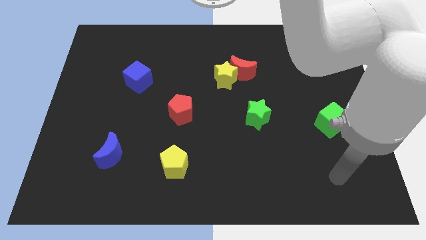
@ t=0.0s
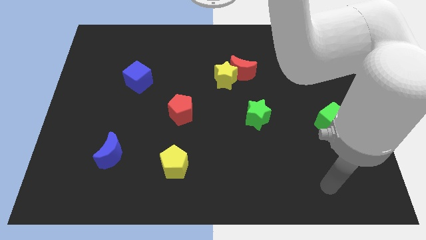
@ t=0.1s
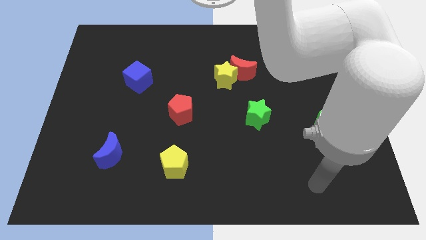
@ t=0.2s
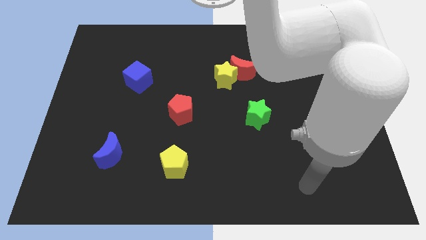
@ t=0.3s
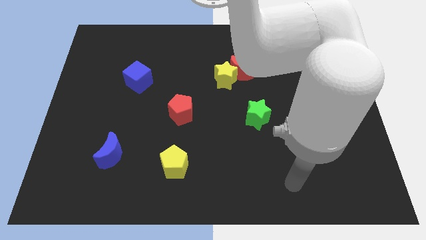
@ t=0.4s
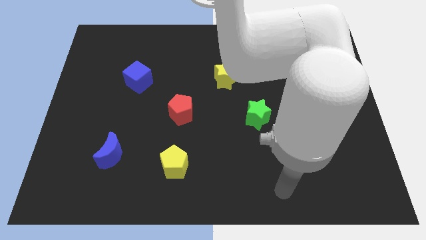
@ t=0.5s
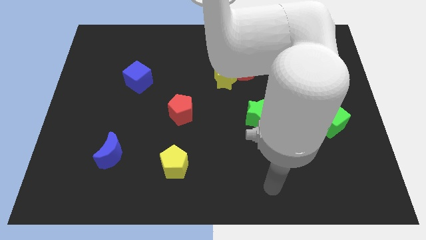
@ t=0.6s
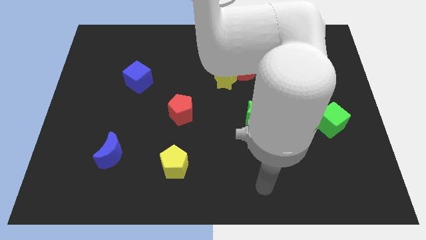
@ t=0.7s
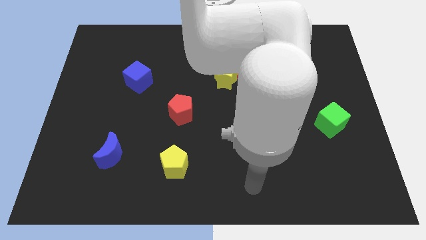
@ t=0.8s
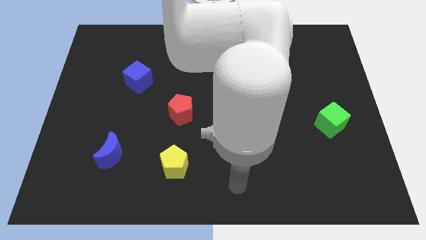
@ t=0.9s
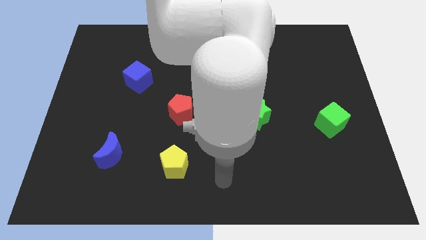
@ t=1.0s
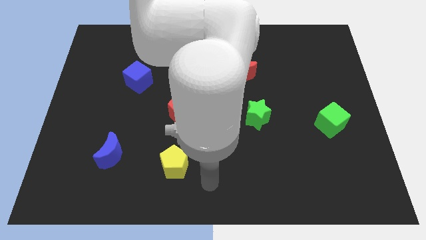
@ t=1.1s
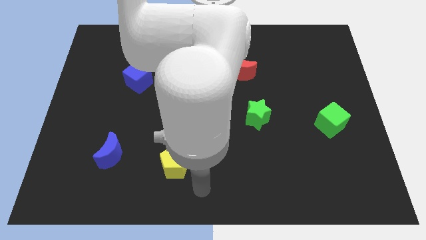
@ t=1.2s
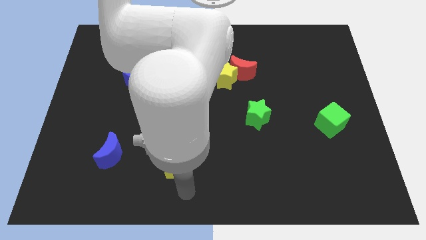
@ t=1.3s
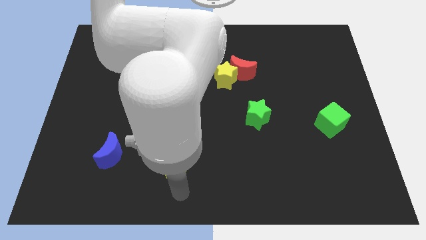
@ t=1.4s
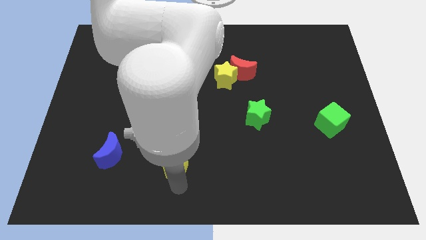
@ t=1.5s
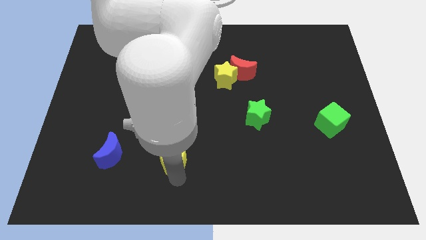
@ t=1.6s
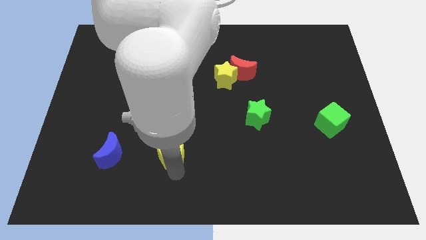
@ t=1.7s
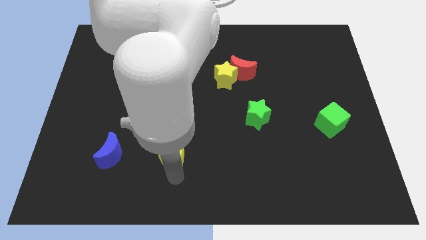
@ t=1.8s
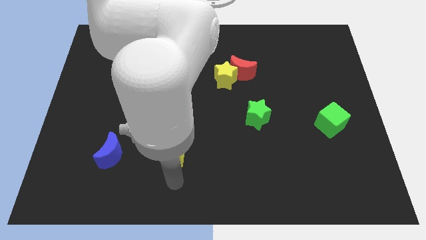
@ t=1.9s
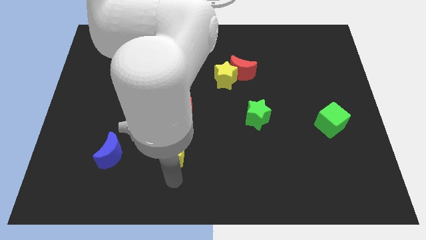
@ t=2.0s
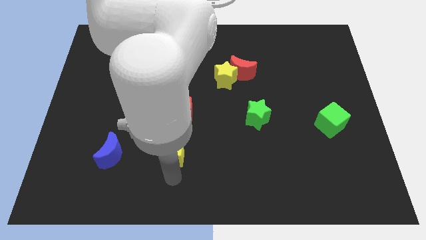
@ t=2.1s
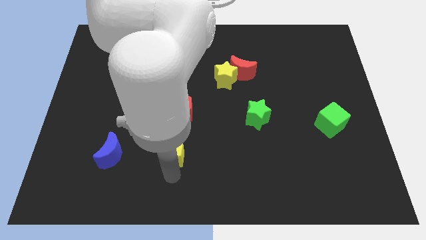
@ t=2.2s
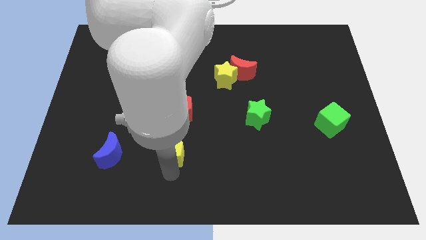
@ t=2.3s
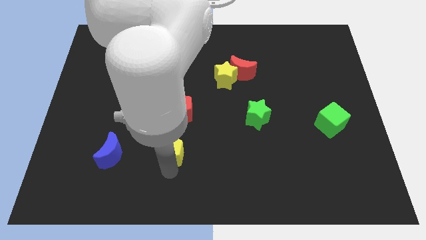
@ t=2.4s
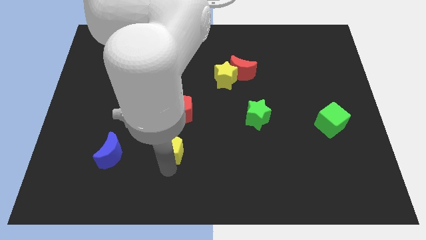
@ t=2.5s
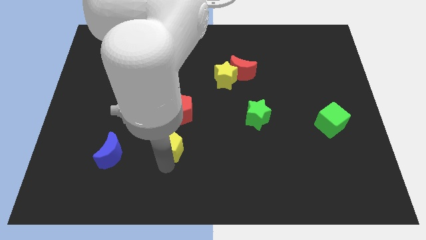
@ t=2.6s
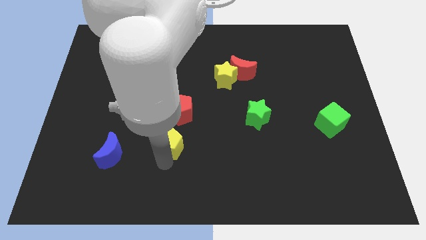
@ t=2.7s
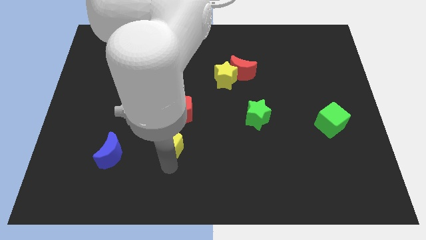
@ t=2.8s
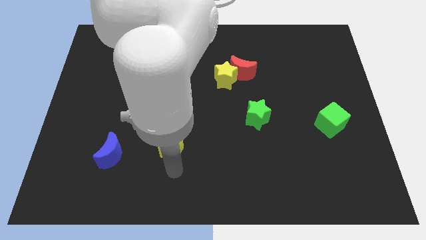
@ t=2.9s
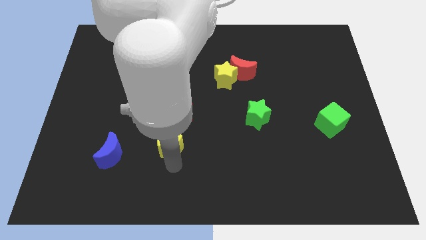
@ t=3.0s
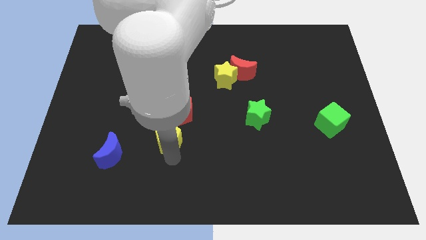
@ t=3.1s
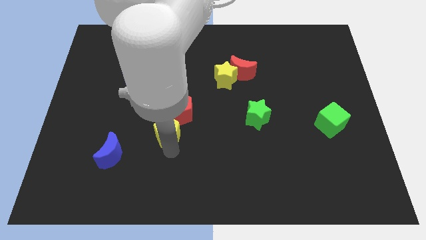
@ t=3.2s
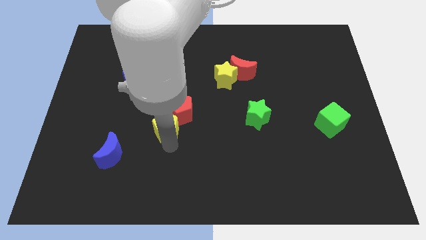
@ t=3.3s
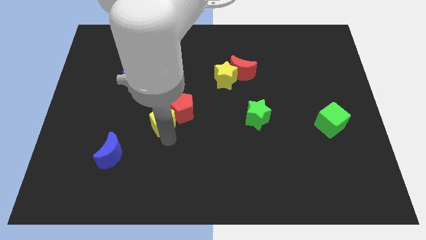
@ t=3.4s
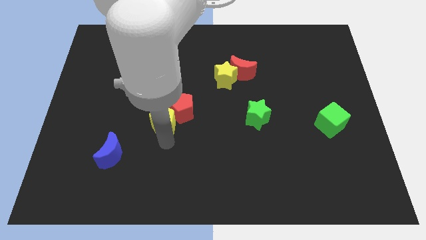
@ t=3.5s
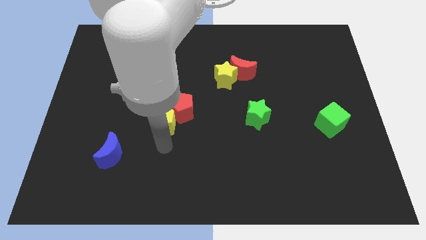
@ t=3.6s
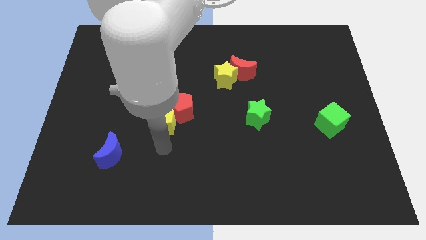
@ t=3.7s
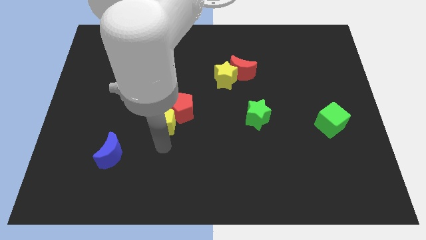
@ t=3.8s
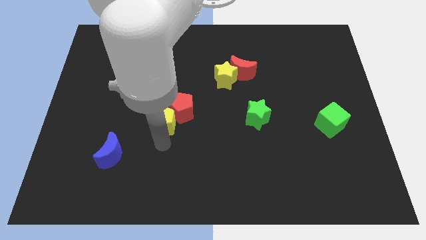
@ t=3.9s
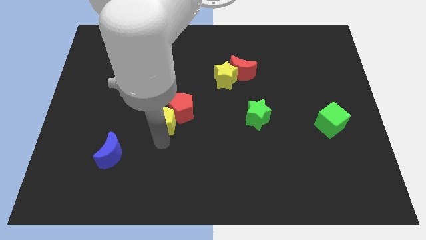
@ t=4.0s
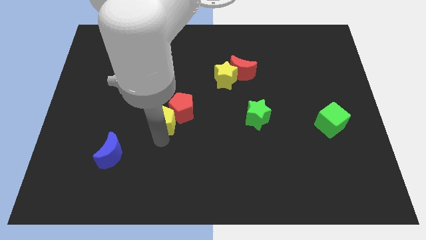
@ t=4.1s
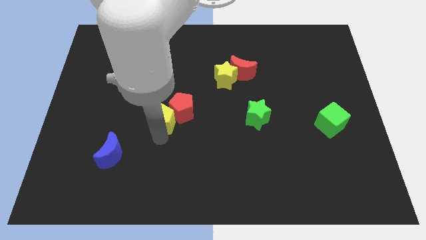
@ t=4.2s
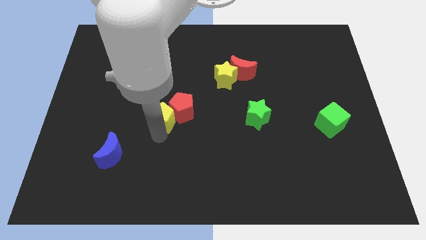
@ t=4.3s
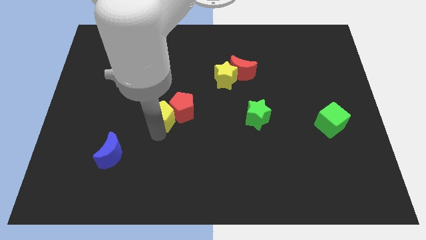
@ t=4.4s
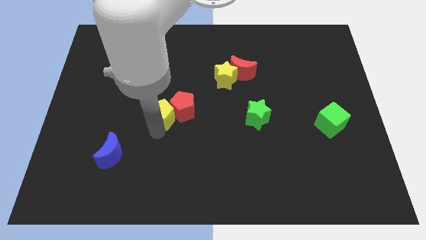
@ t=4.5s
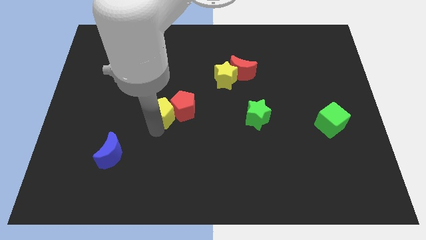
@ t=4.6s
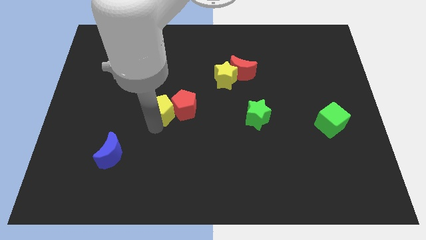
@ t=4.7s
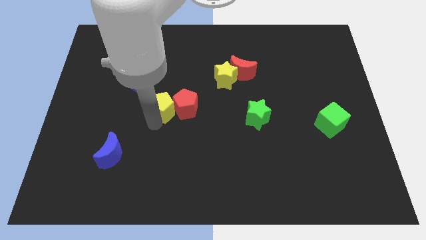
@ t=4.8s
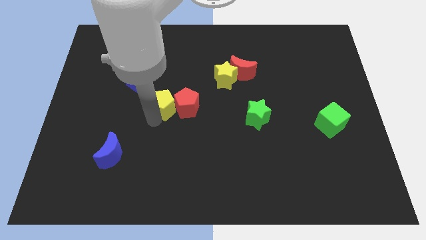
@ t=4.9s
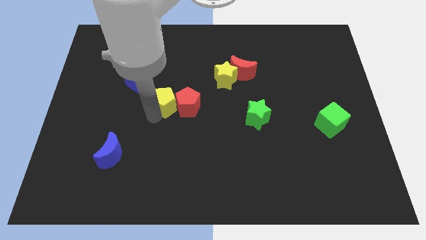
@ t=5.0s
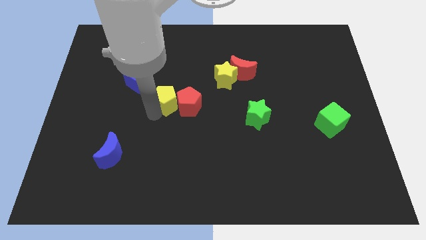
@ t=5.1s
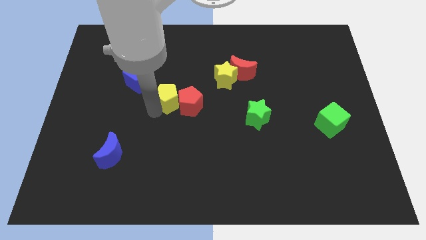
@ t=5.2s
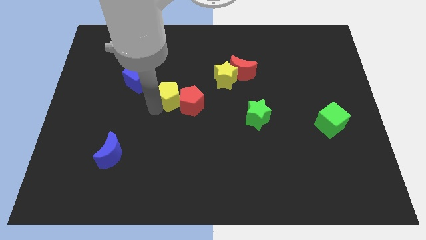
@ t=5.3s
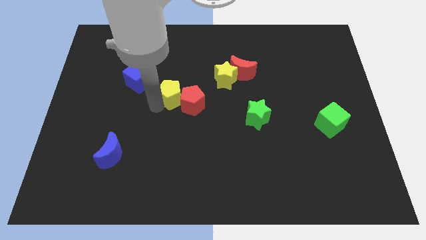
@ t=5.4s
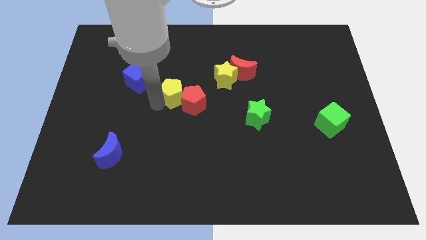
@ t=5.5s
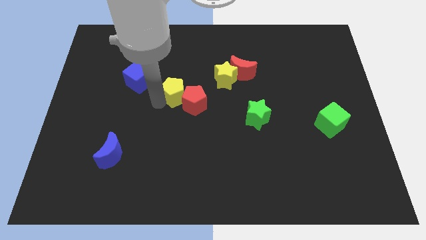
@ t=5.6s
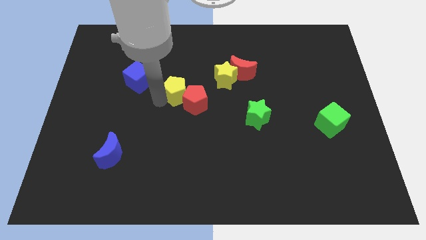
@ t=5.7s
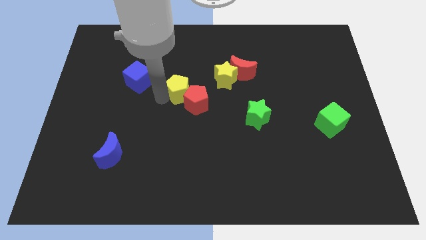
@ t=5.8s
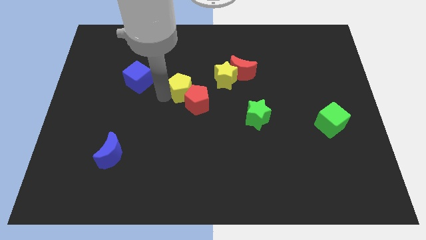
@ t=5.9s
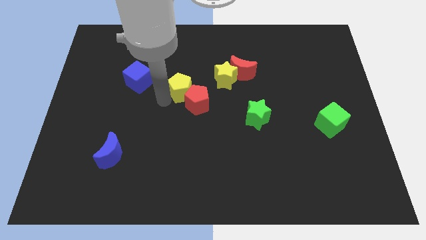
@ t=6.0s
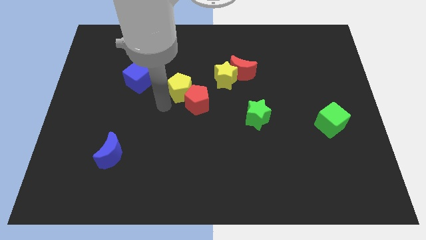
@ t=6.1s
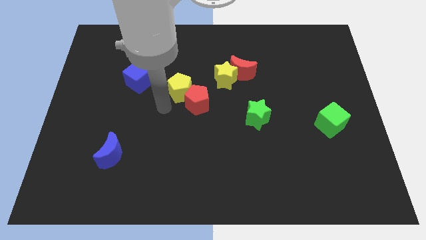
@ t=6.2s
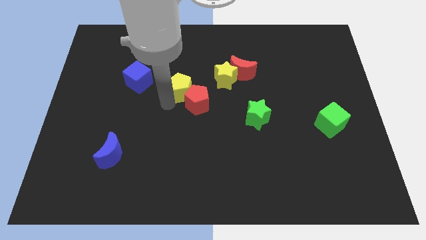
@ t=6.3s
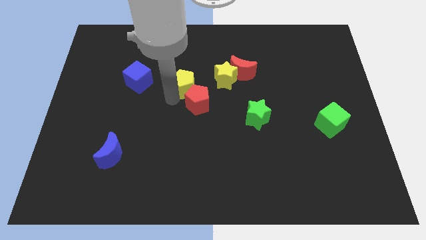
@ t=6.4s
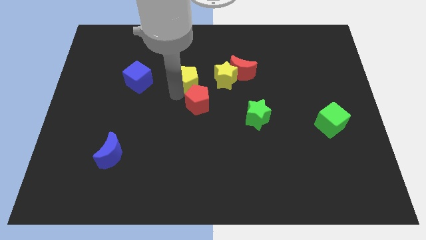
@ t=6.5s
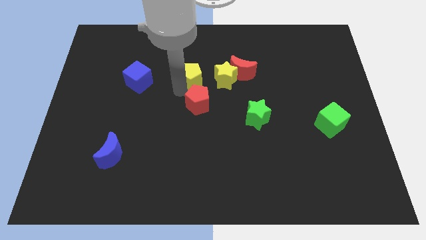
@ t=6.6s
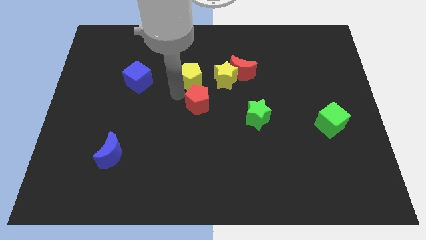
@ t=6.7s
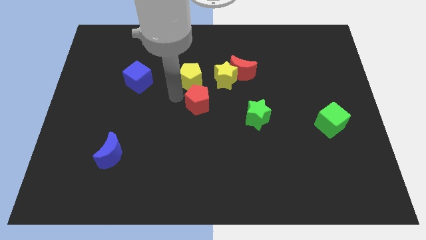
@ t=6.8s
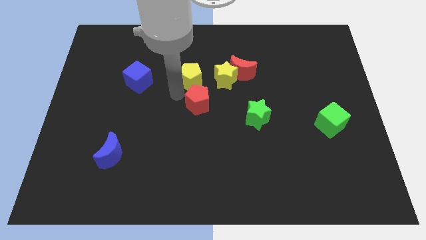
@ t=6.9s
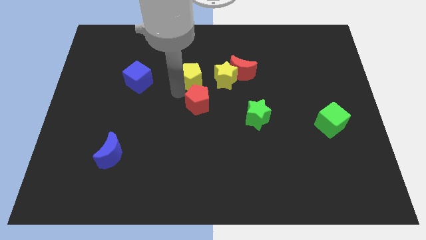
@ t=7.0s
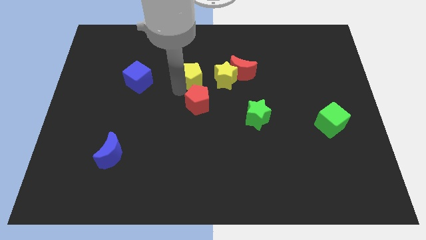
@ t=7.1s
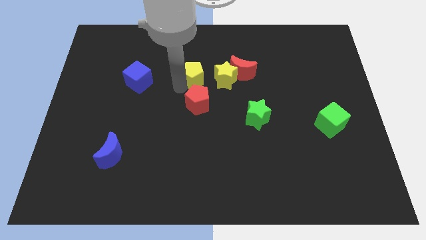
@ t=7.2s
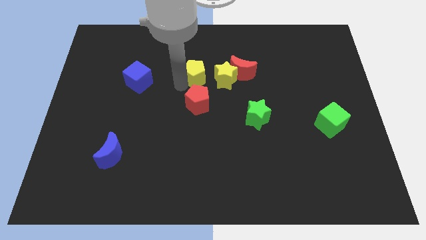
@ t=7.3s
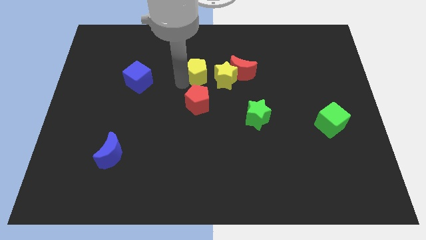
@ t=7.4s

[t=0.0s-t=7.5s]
push the yellow pentagon to the top left of the yellow star

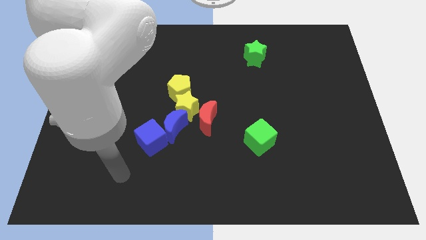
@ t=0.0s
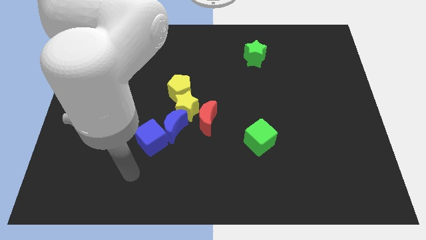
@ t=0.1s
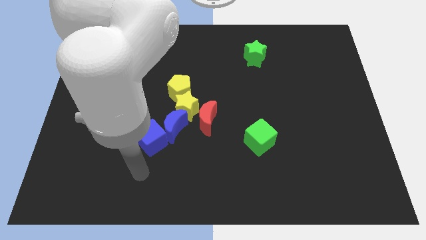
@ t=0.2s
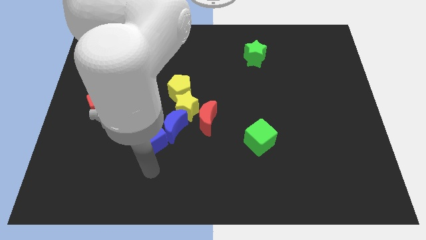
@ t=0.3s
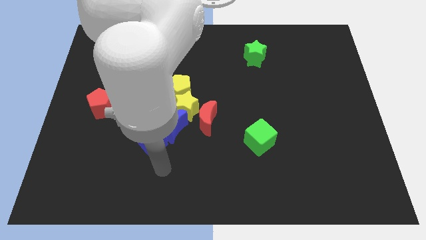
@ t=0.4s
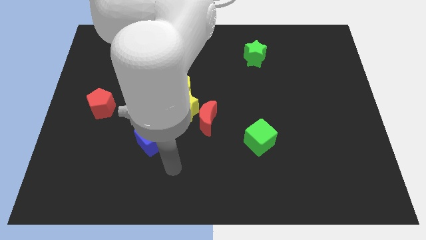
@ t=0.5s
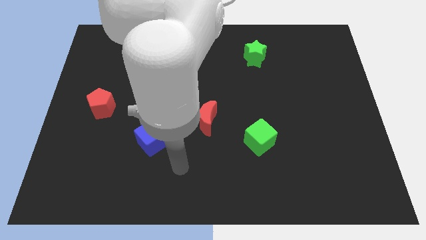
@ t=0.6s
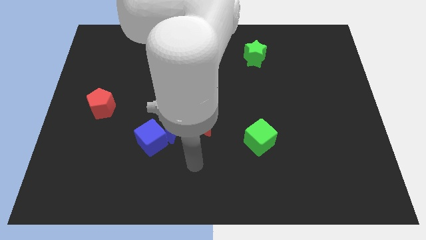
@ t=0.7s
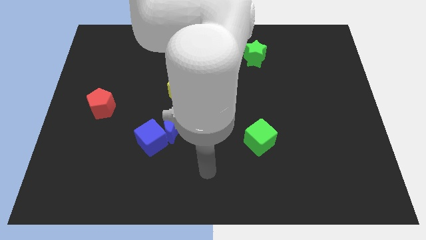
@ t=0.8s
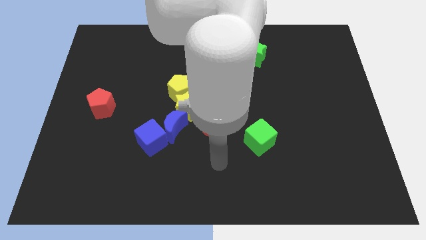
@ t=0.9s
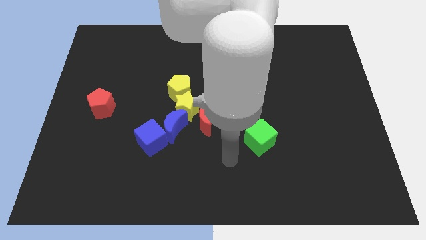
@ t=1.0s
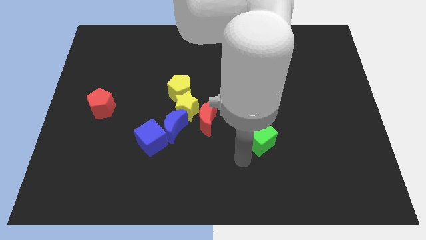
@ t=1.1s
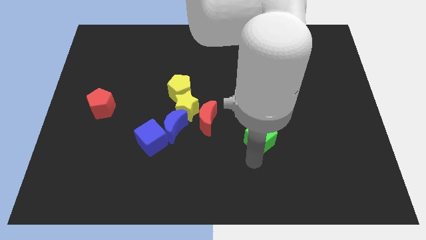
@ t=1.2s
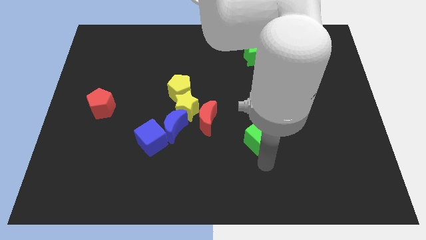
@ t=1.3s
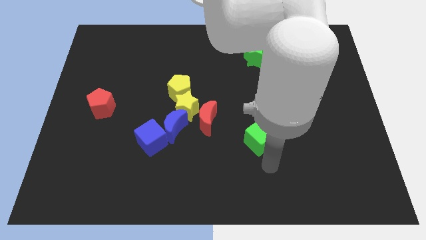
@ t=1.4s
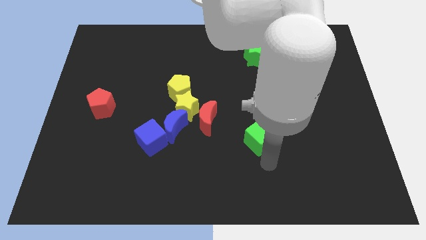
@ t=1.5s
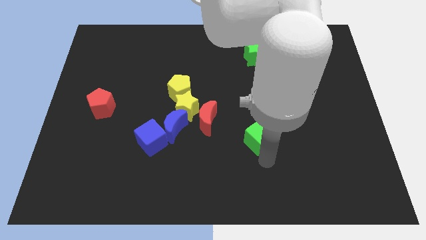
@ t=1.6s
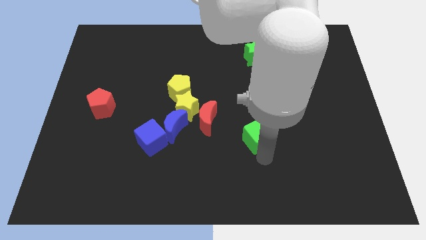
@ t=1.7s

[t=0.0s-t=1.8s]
move the green cube to the right side of the red moon
